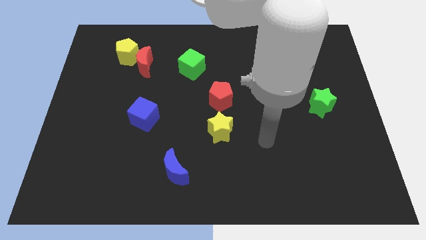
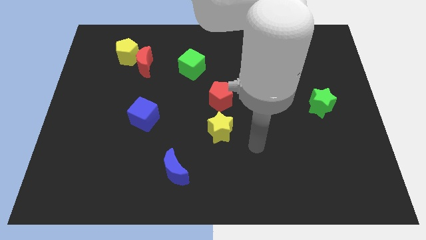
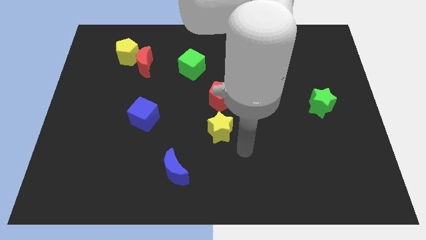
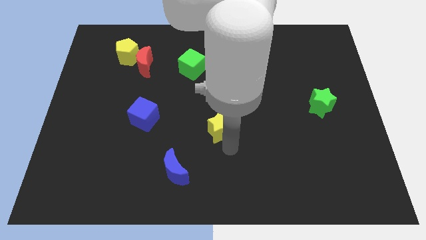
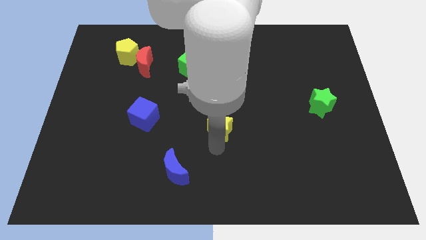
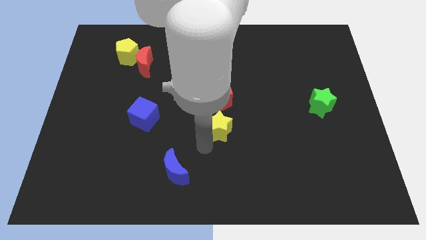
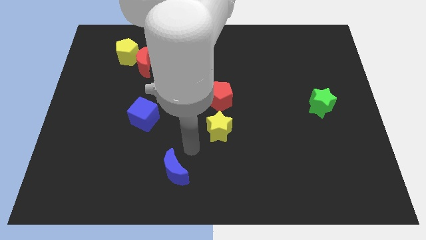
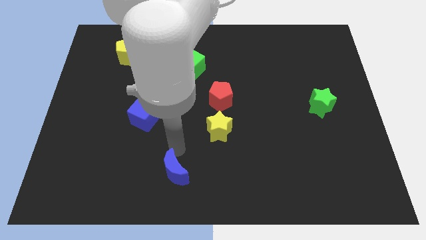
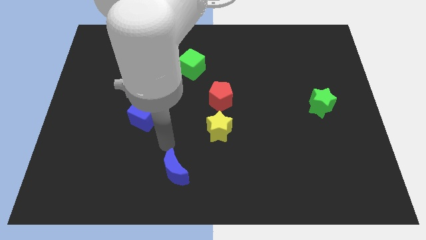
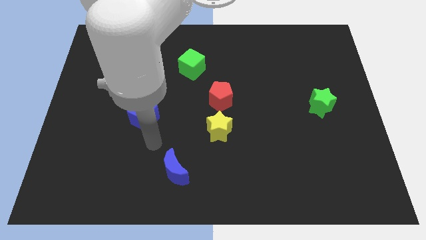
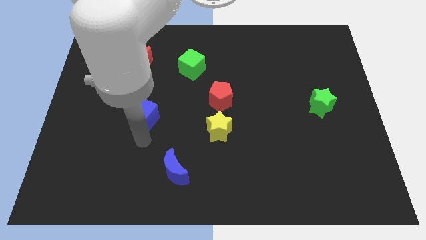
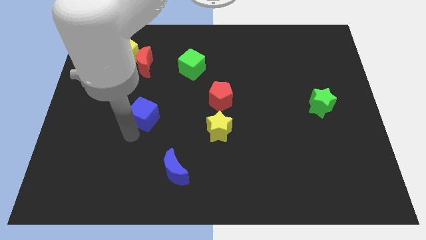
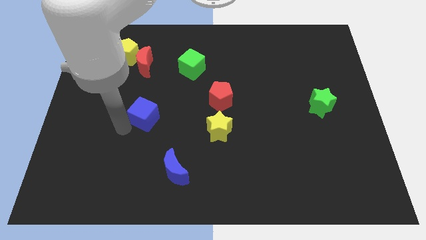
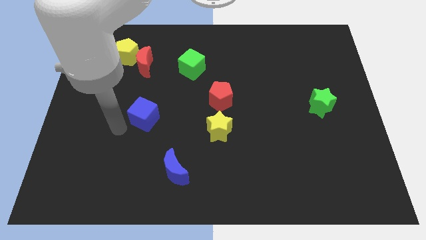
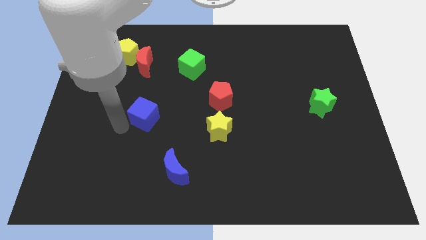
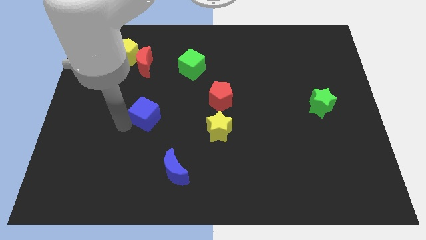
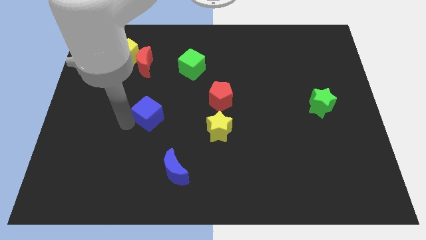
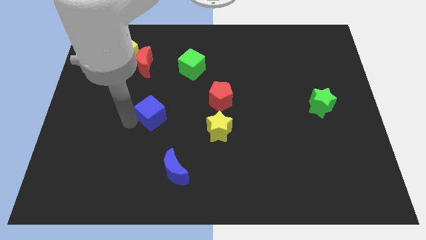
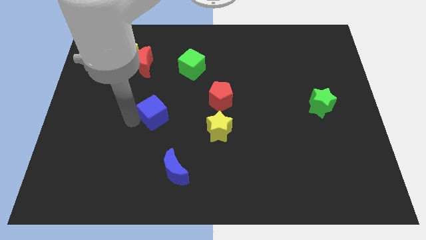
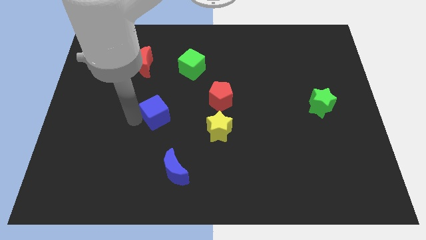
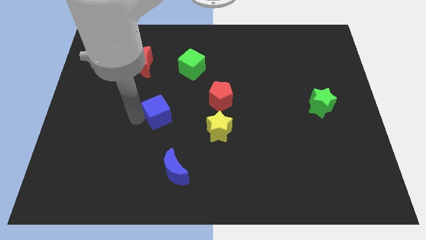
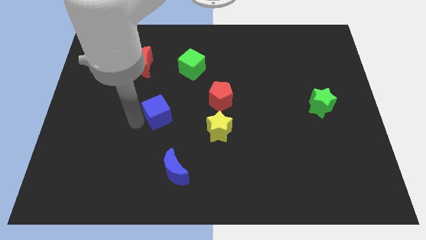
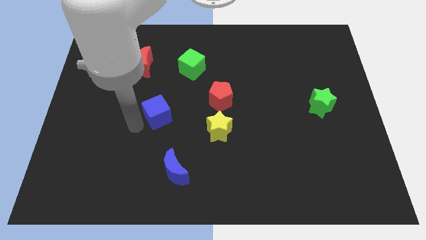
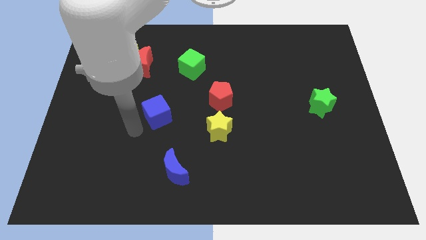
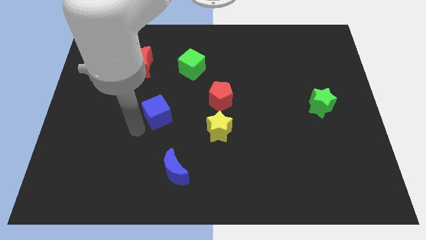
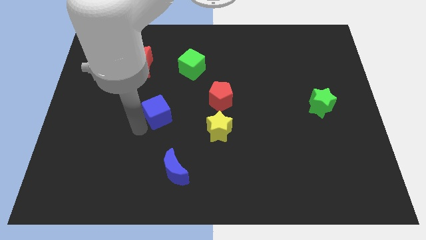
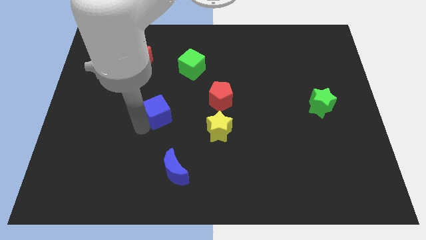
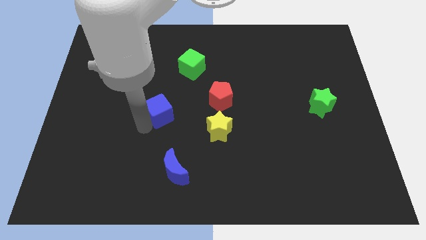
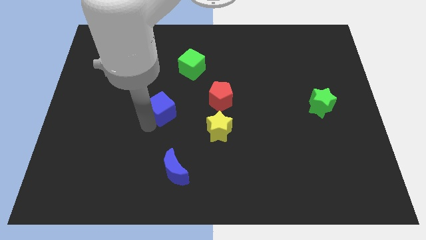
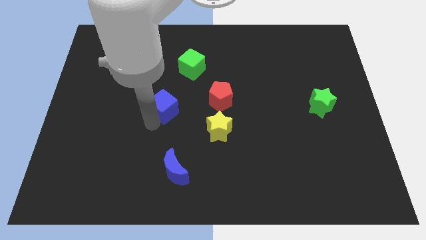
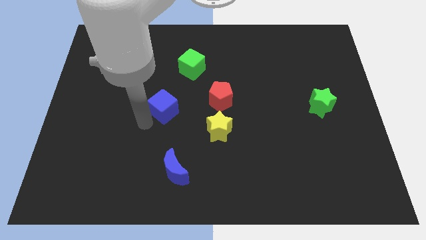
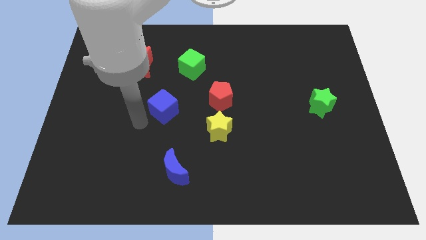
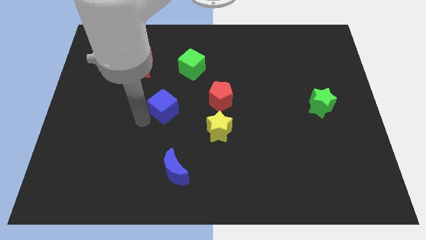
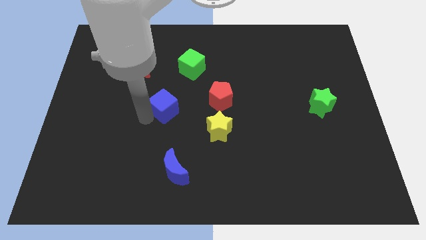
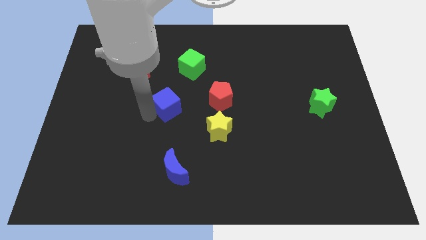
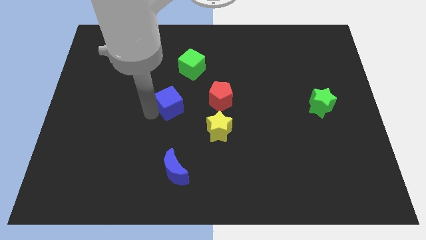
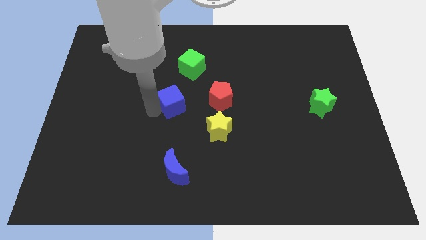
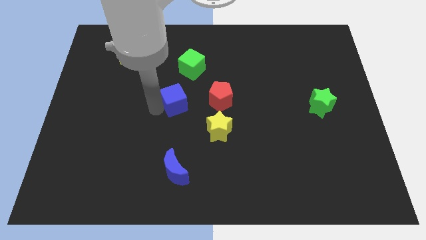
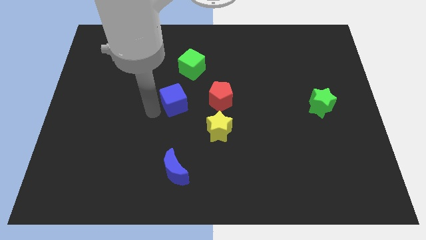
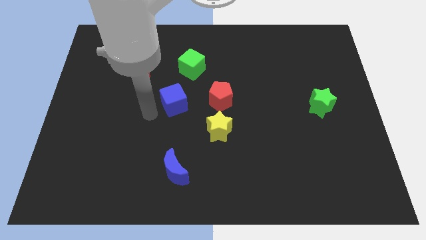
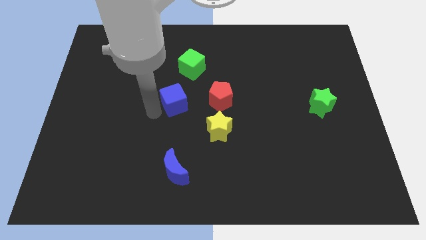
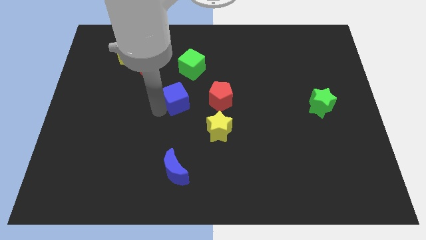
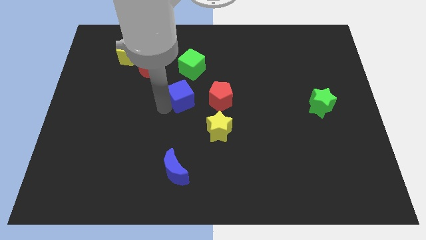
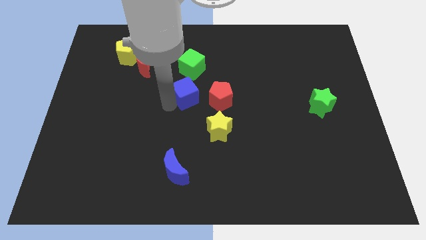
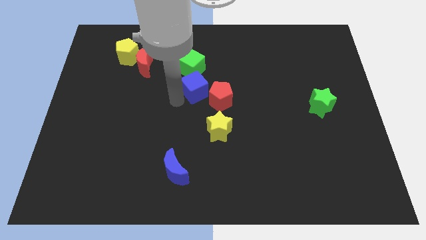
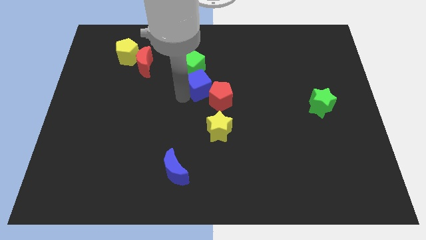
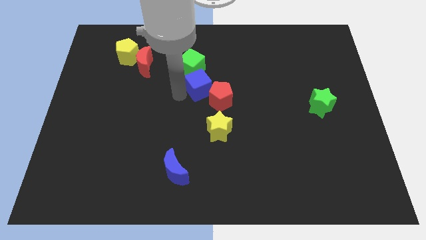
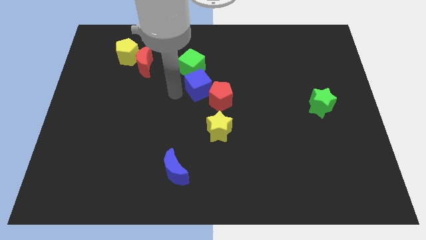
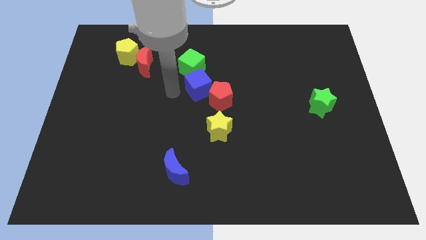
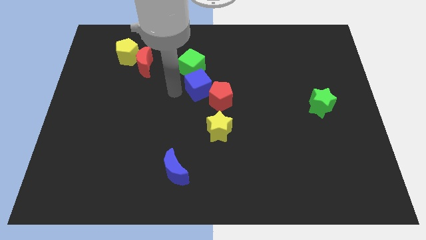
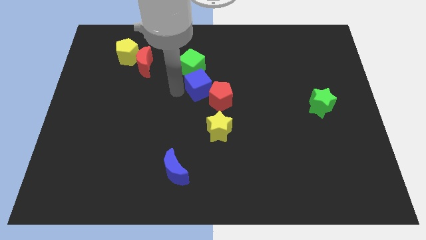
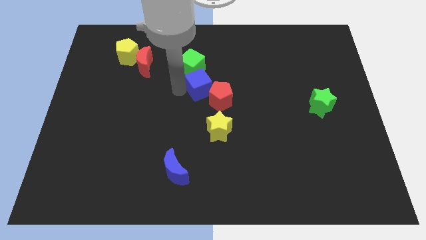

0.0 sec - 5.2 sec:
put the blue cube to the top side of the yellow star

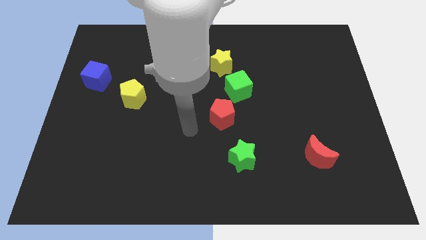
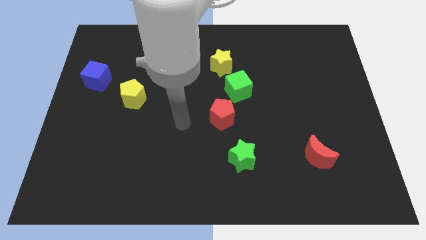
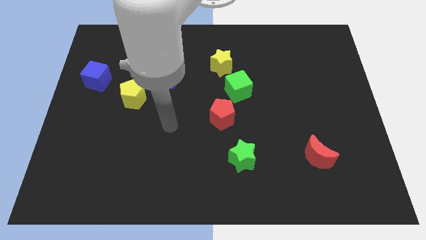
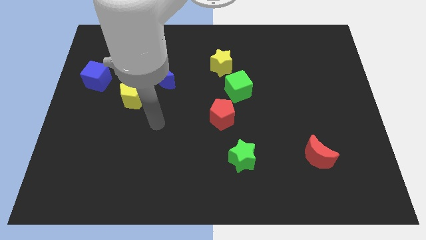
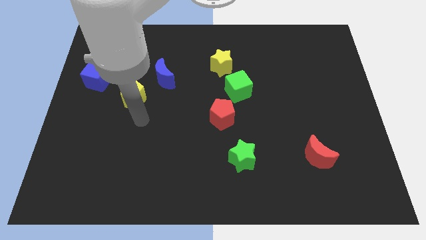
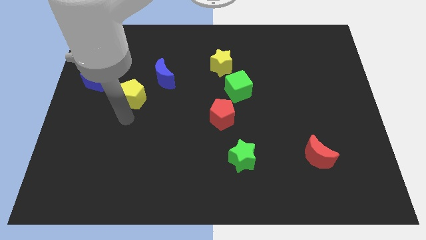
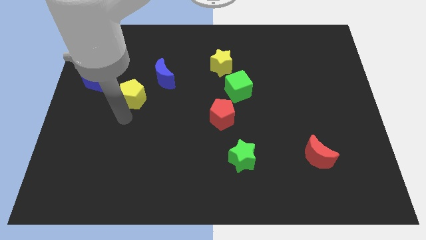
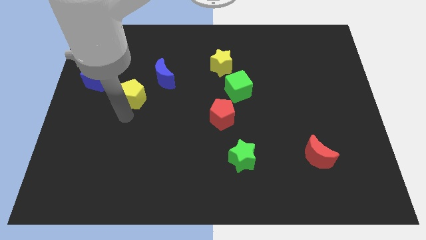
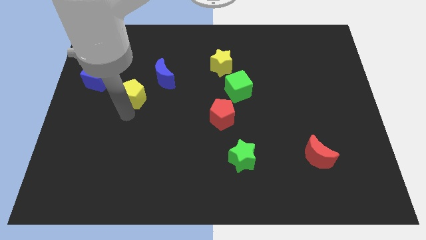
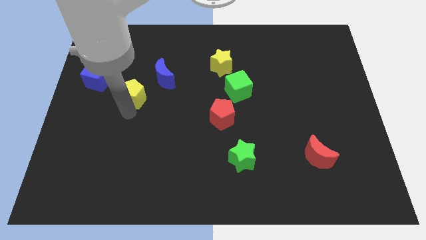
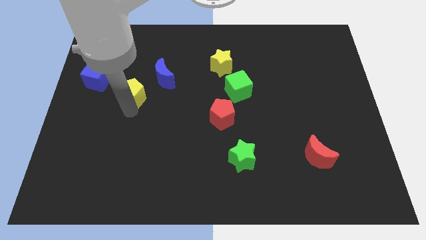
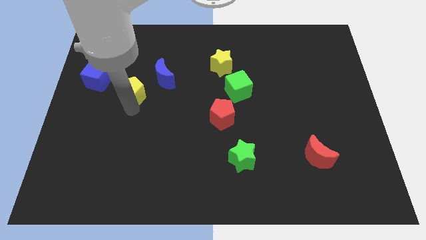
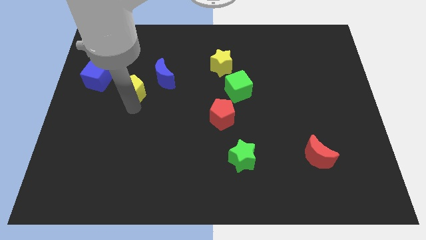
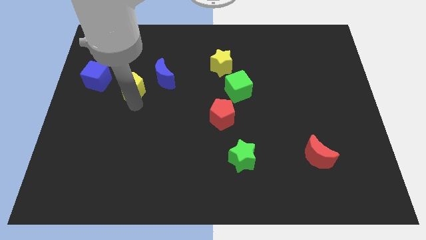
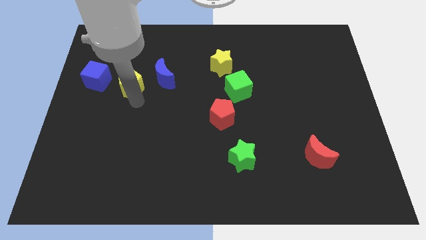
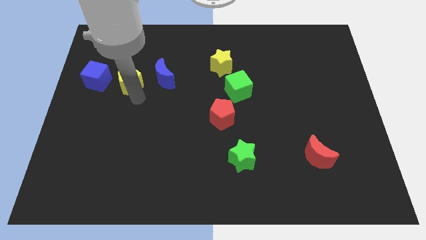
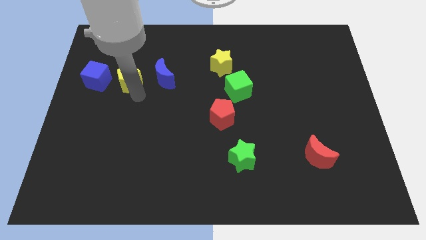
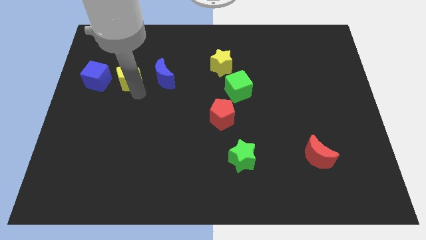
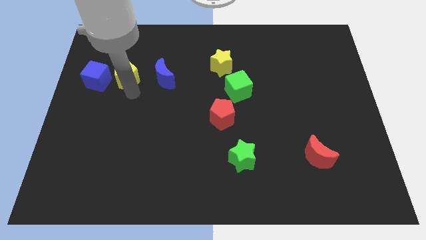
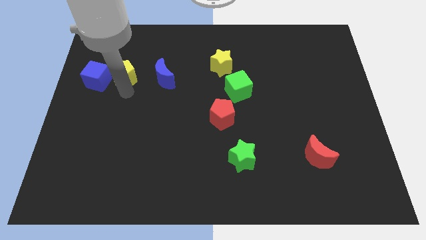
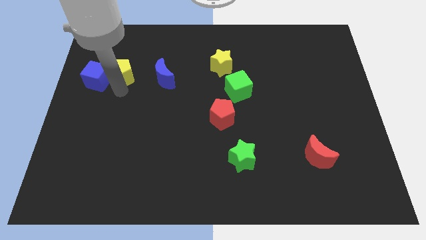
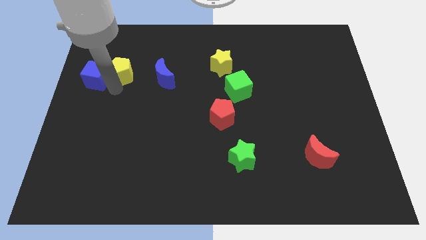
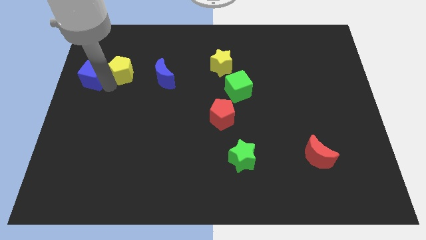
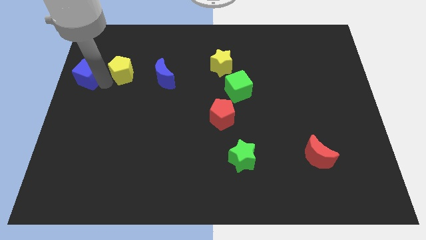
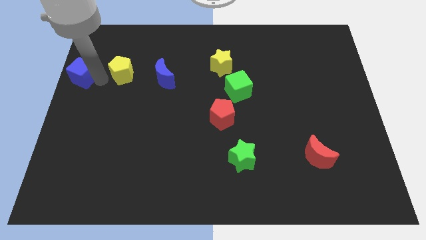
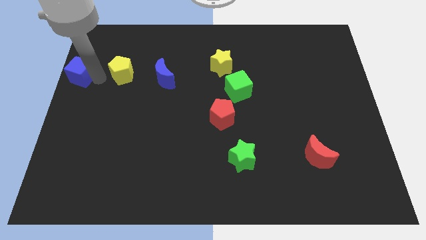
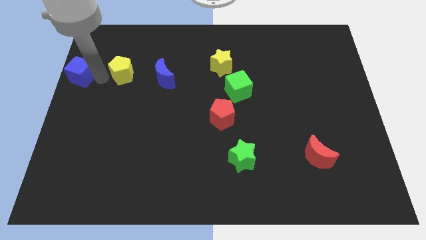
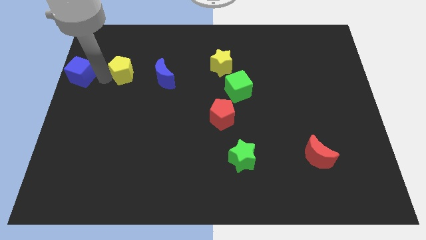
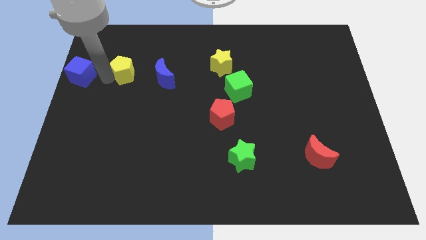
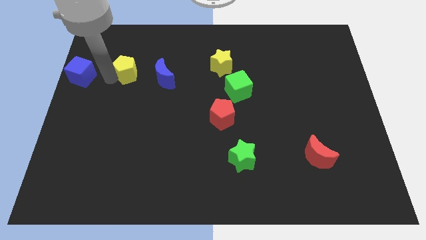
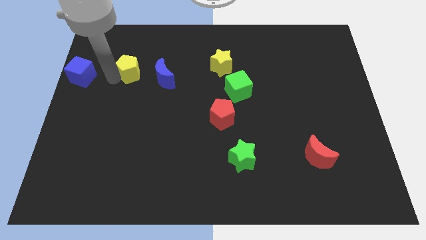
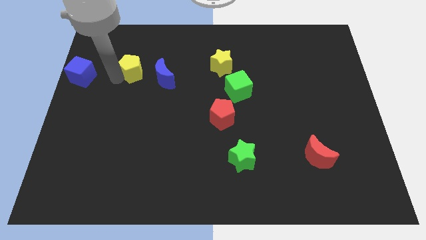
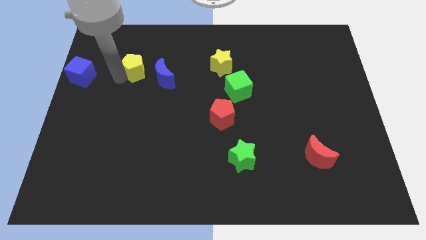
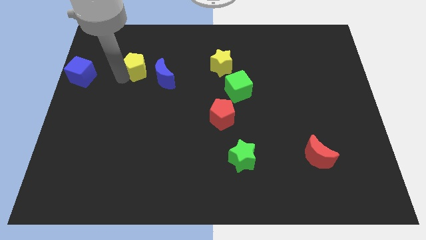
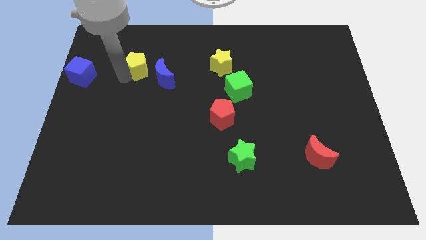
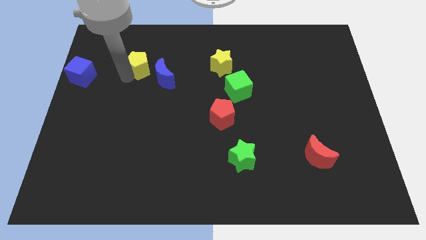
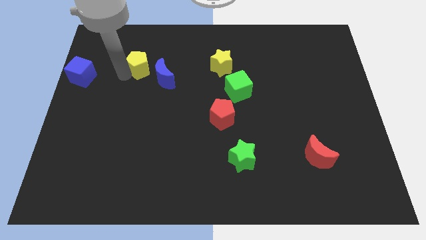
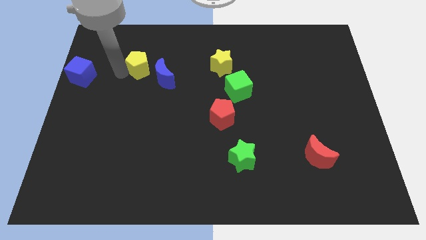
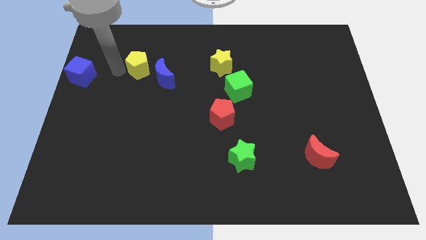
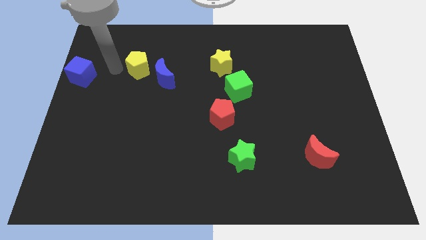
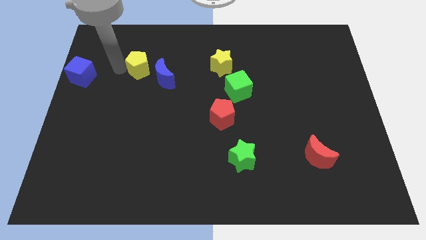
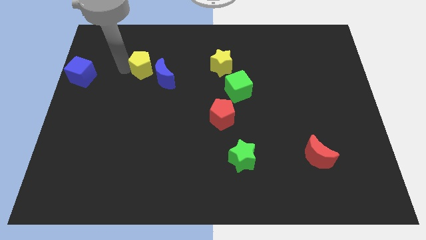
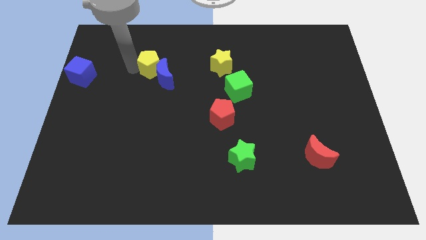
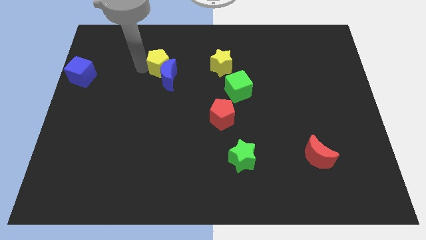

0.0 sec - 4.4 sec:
slide the yellow pentagon just left of the yellow star
